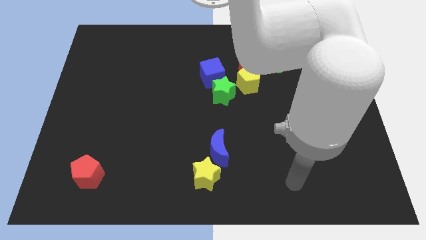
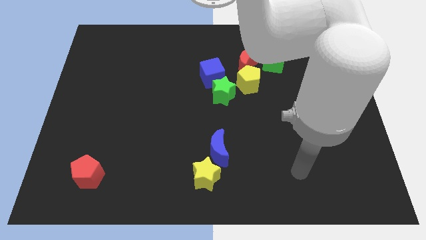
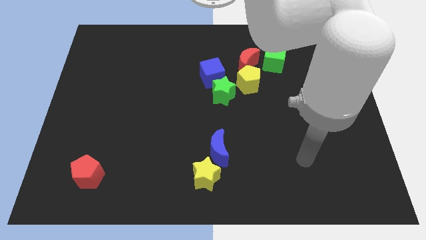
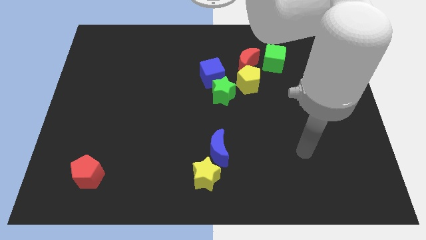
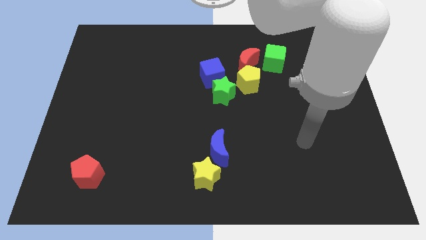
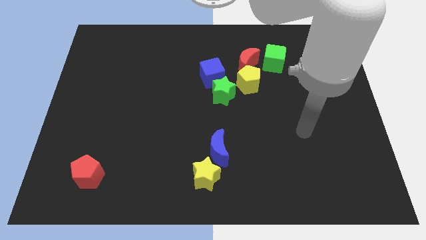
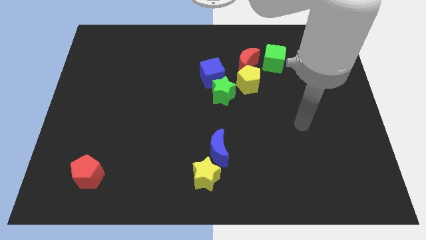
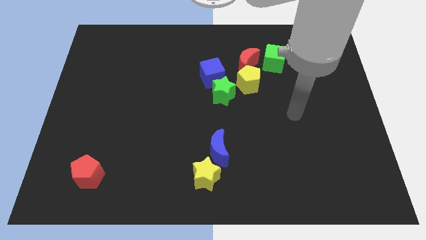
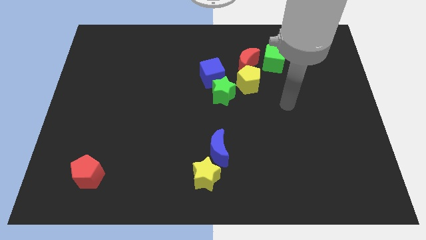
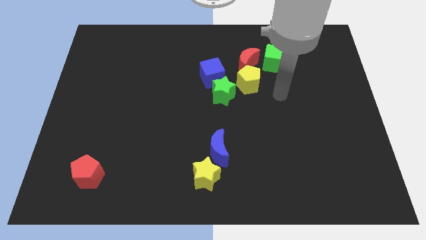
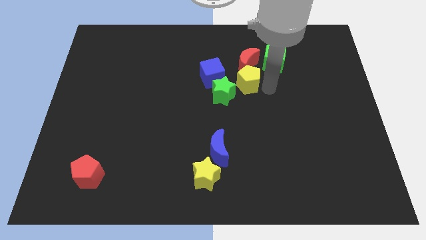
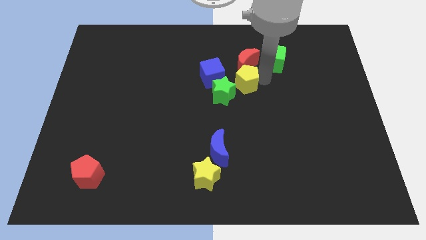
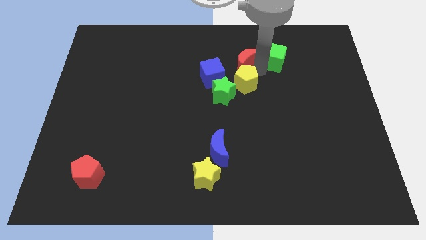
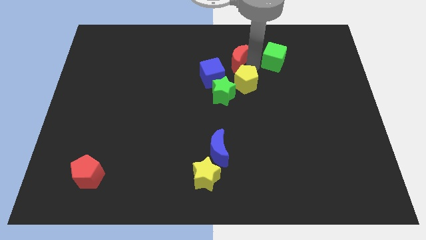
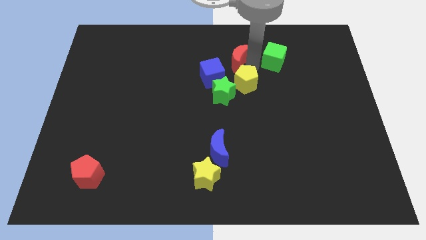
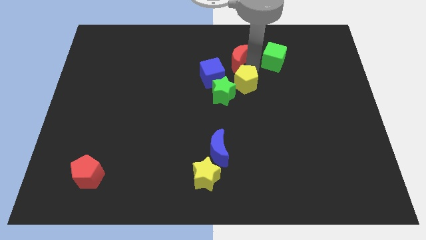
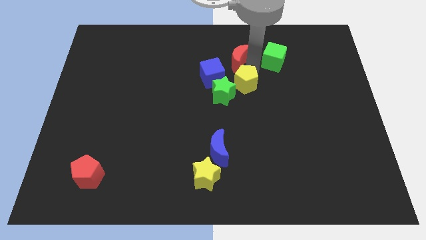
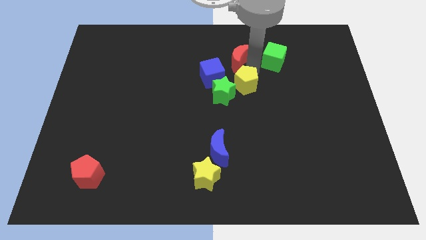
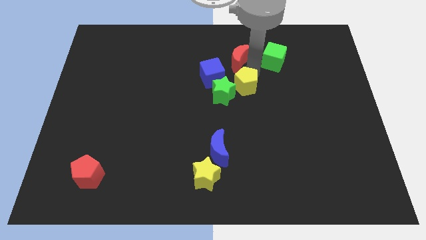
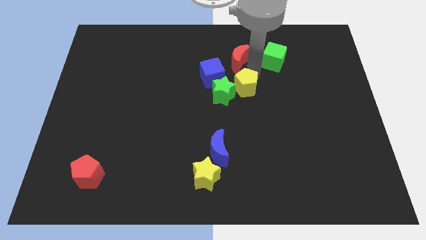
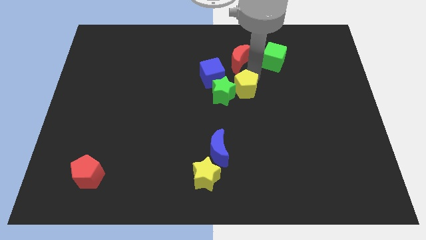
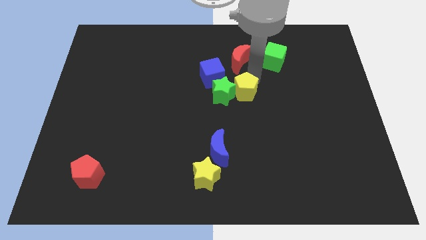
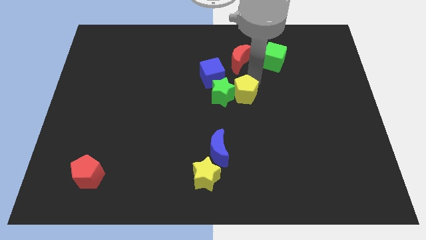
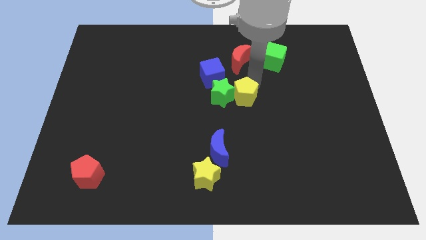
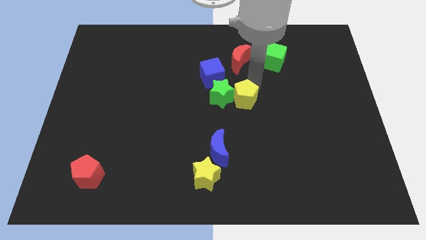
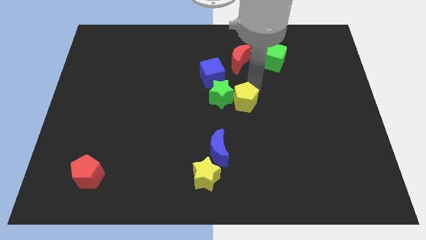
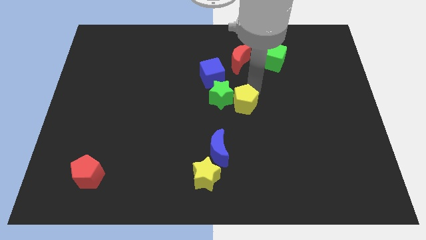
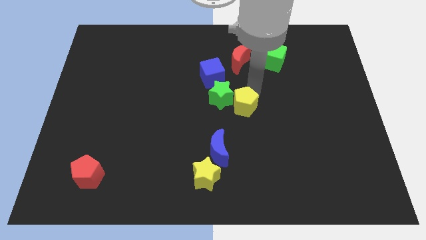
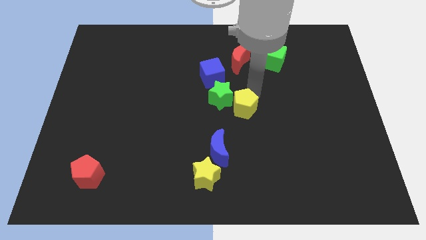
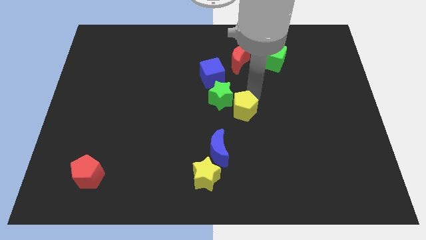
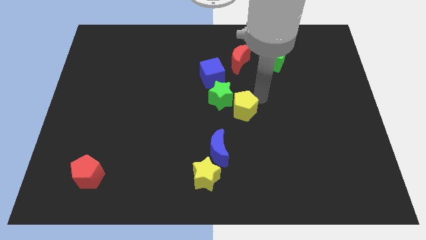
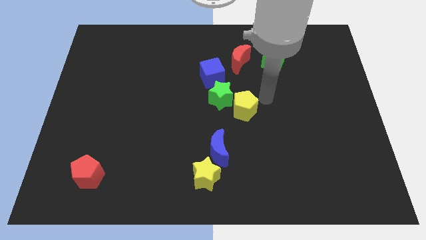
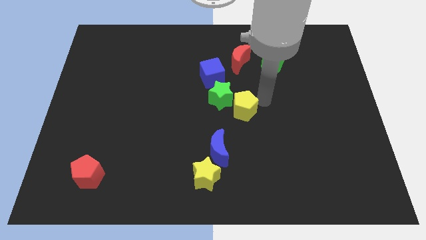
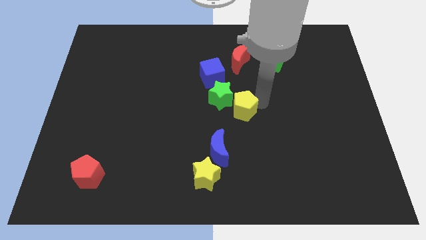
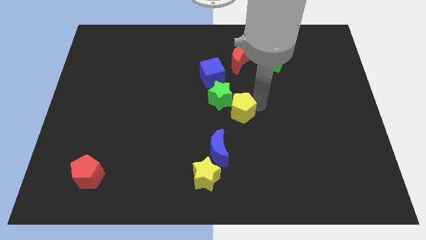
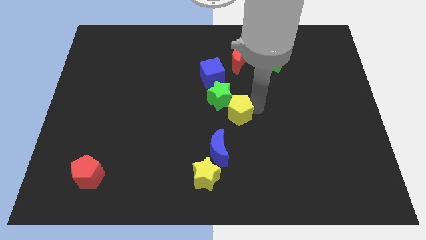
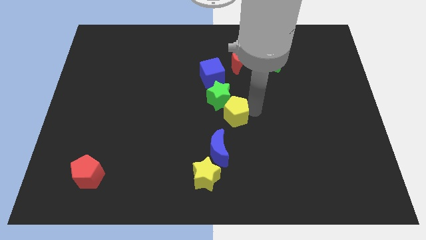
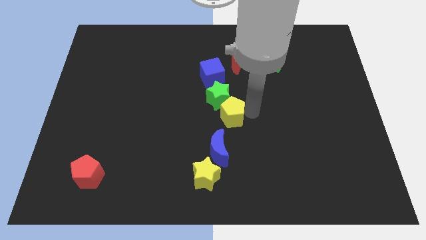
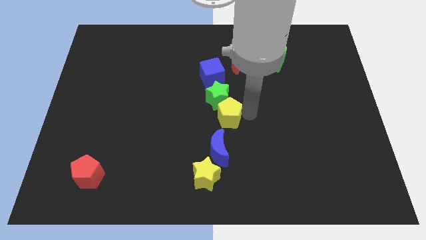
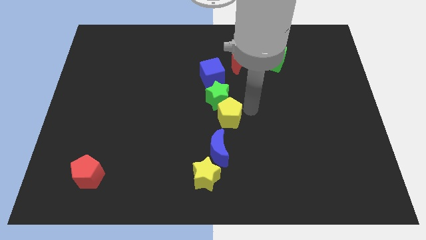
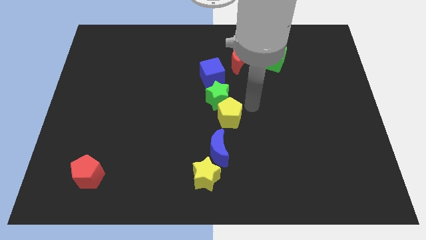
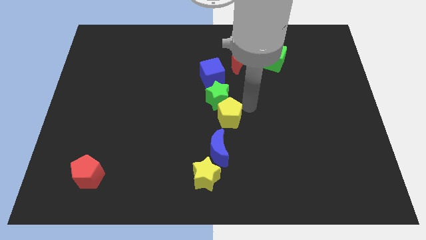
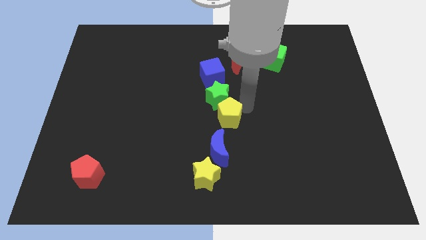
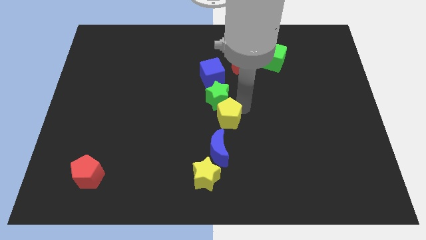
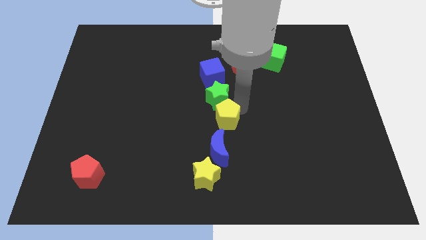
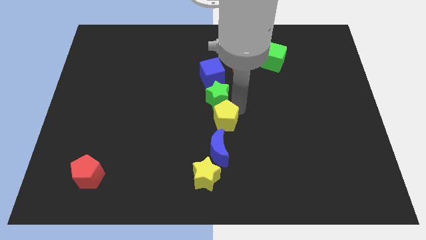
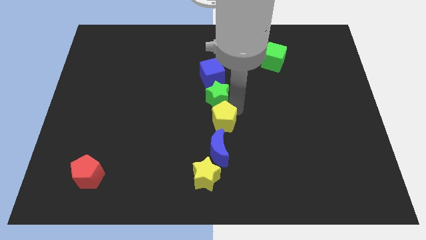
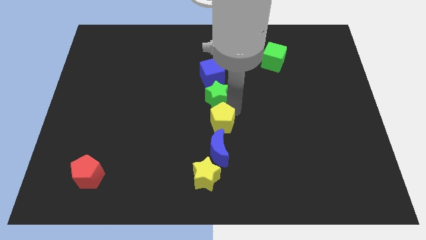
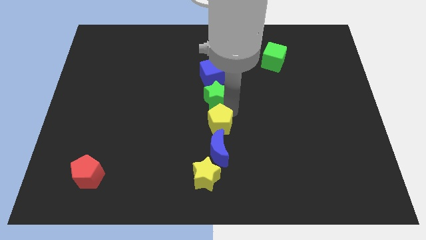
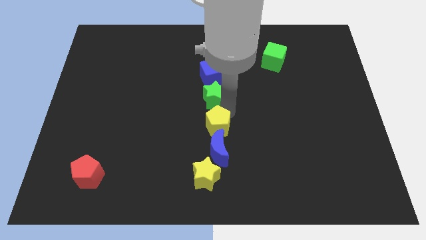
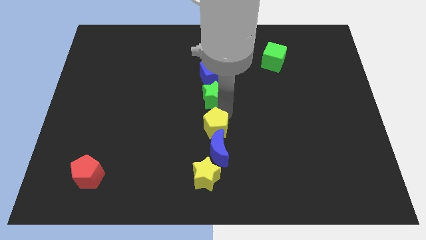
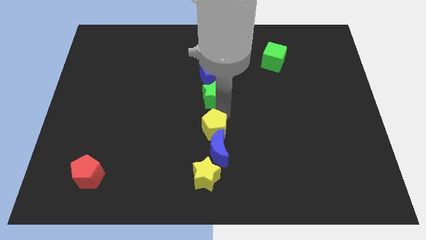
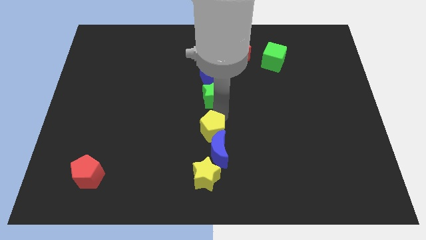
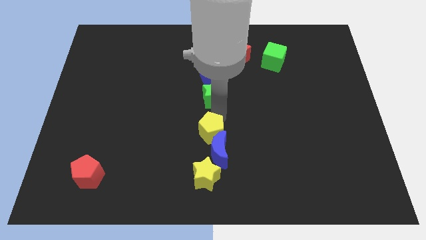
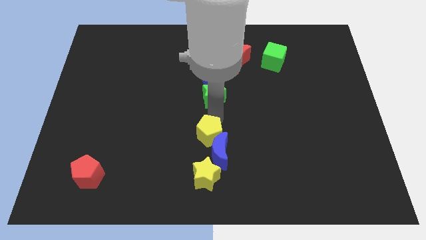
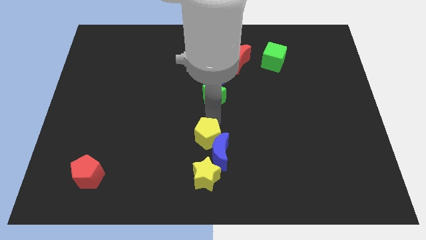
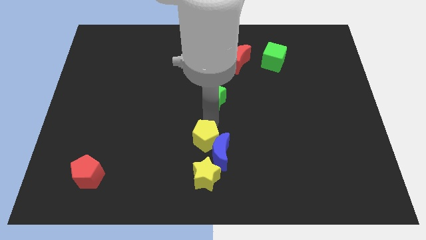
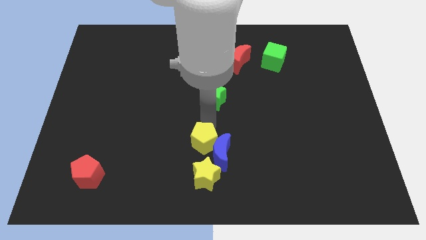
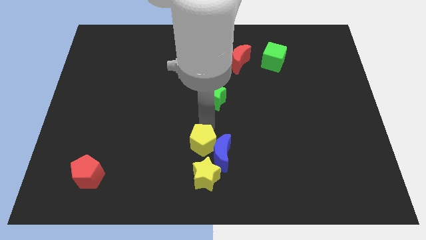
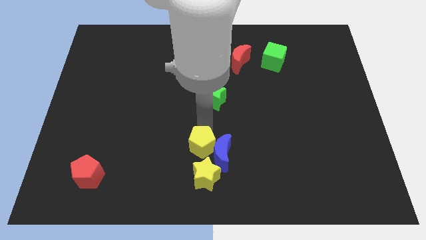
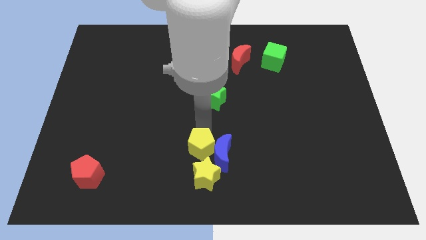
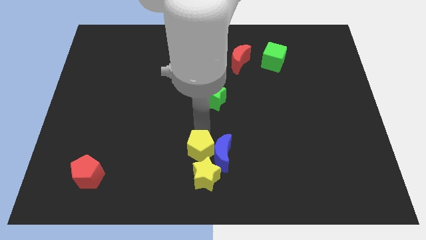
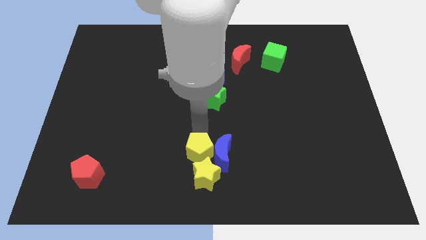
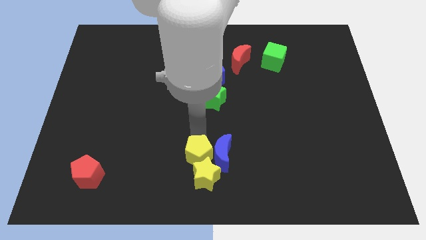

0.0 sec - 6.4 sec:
slide the yellow pentagon close to the yellow star

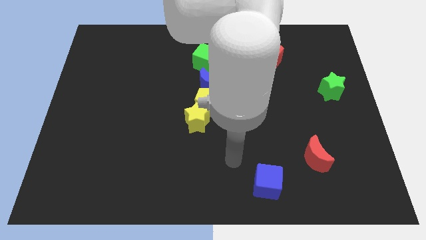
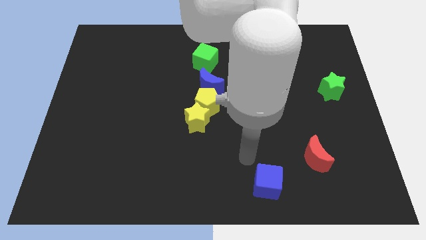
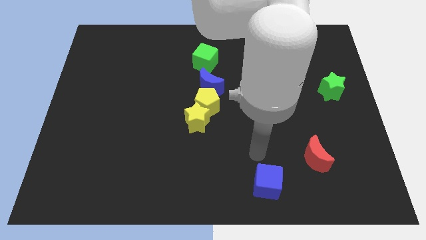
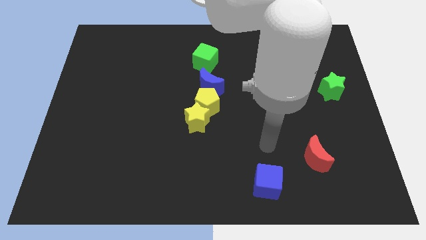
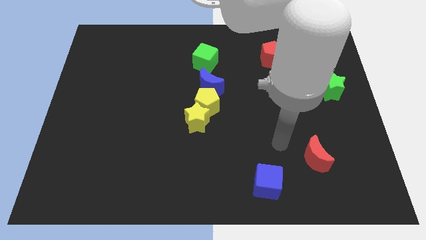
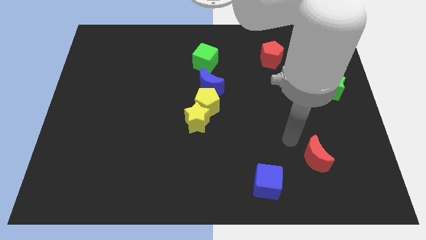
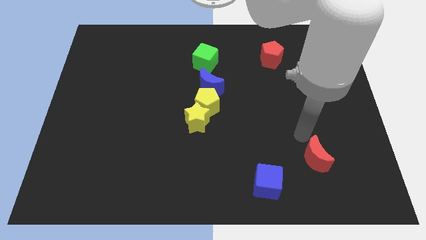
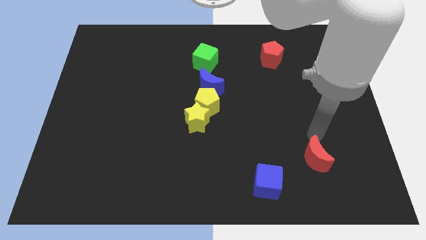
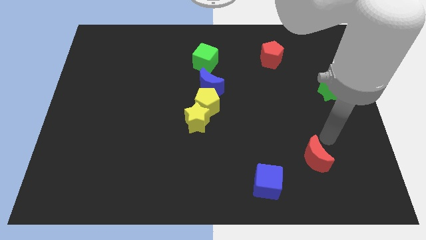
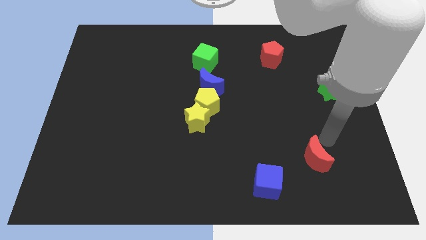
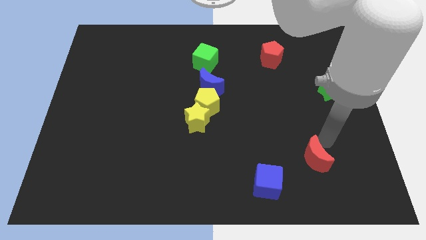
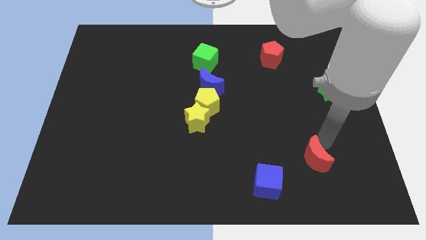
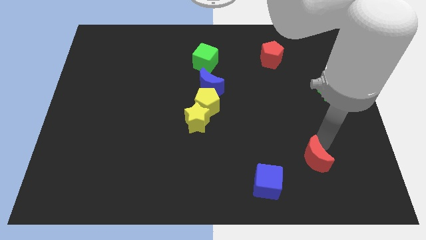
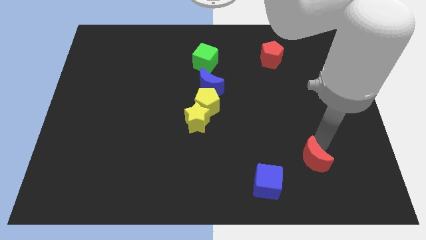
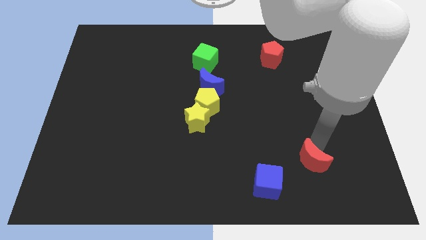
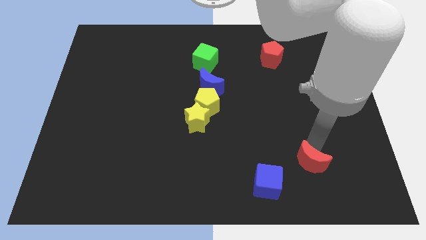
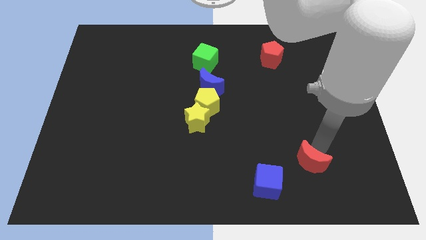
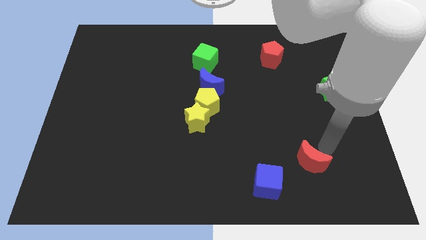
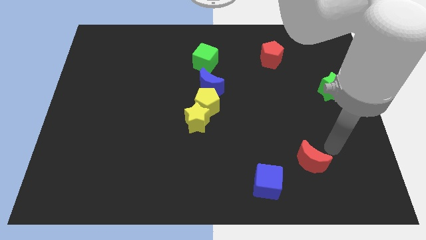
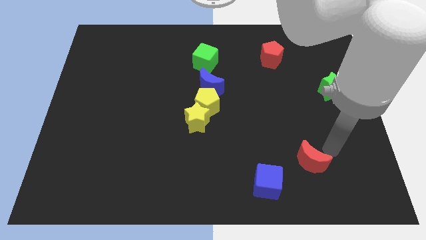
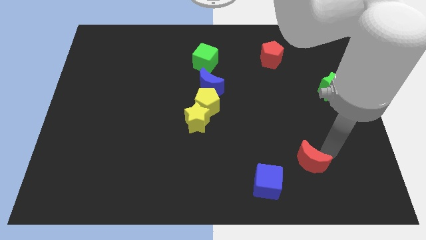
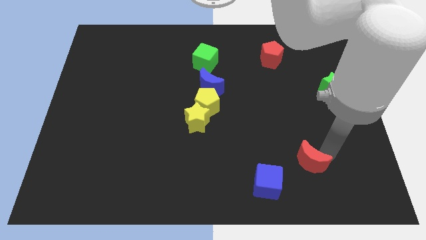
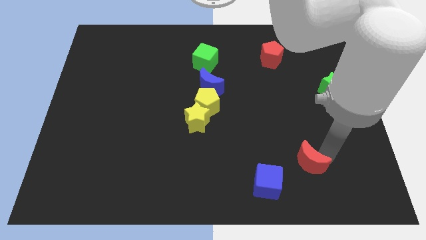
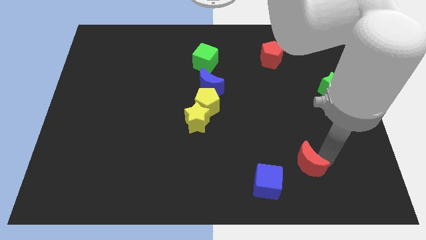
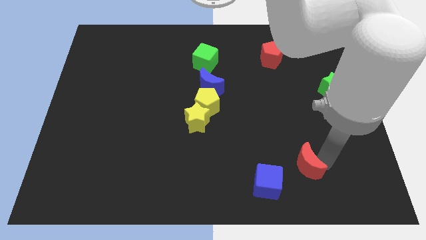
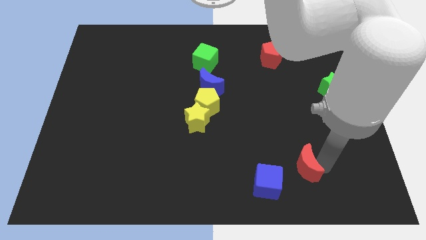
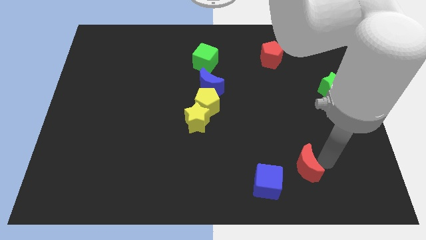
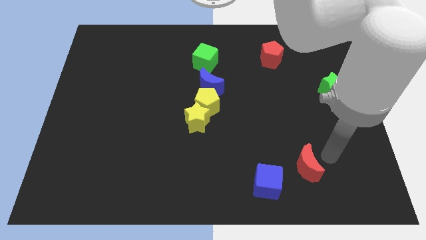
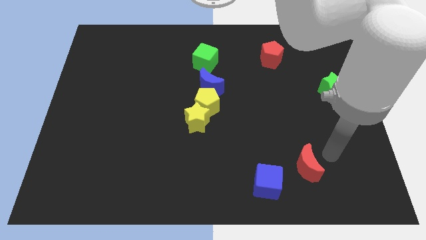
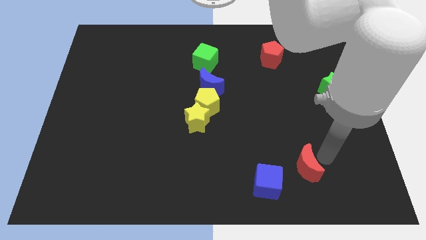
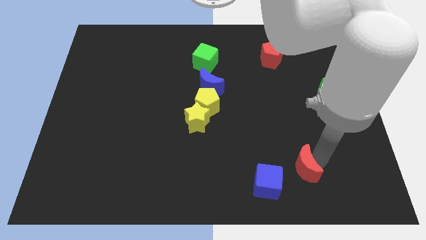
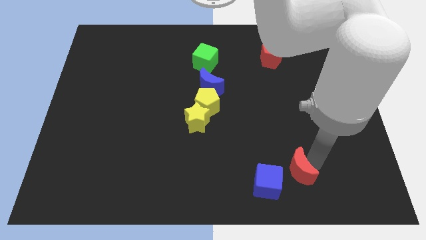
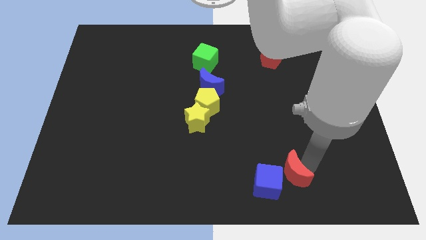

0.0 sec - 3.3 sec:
push the red moon to the blue cube
